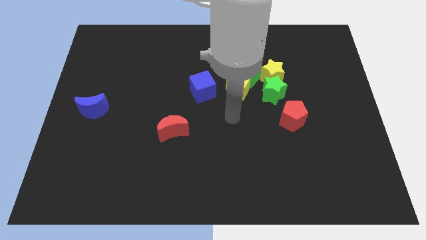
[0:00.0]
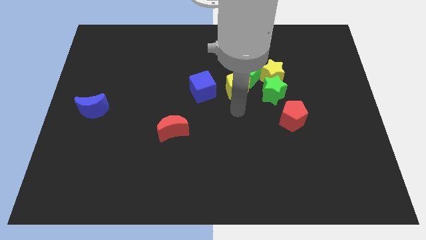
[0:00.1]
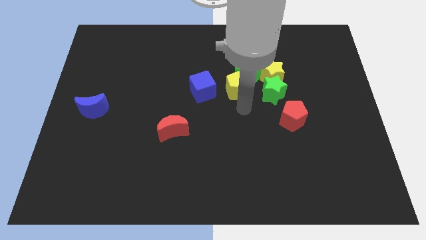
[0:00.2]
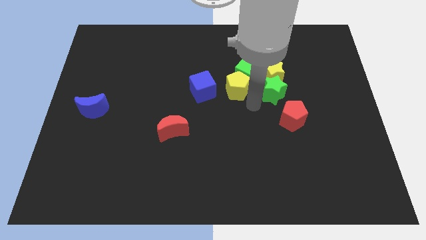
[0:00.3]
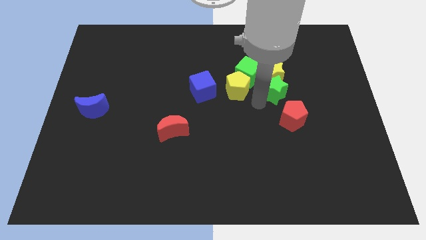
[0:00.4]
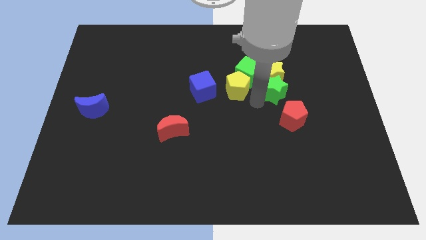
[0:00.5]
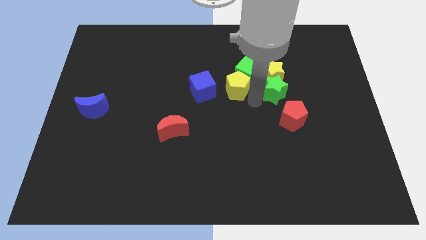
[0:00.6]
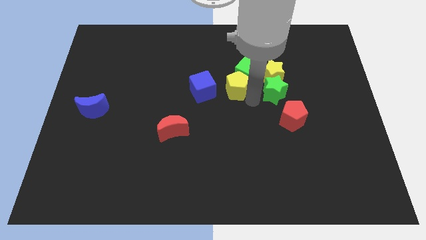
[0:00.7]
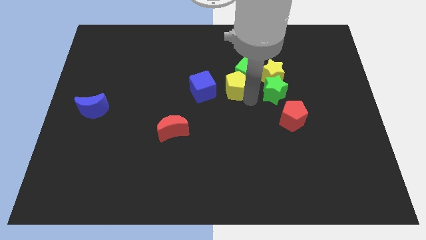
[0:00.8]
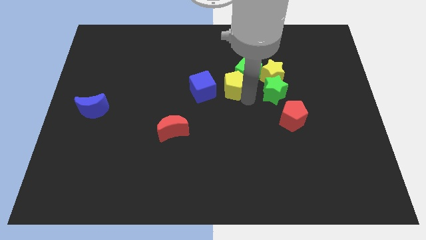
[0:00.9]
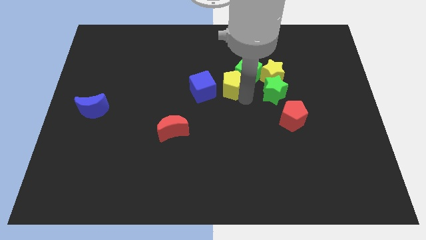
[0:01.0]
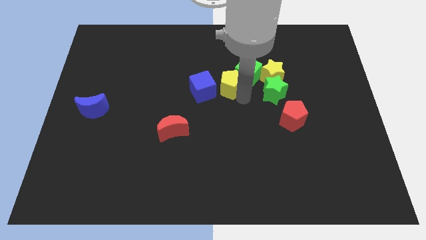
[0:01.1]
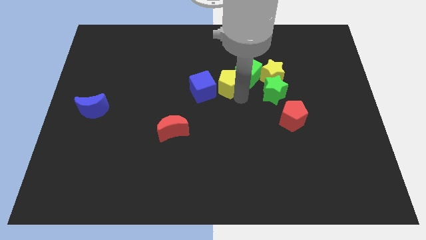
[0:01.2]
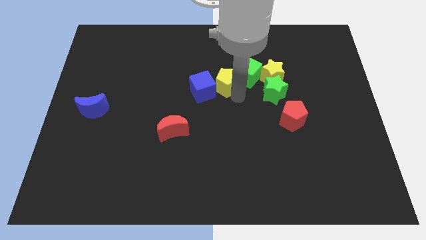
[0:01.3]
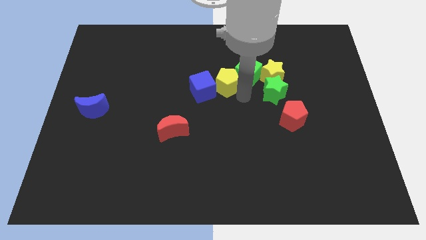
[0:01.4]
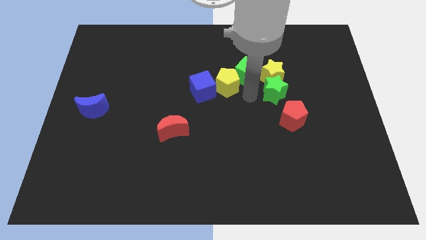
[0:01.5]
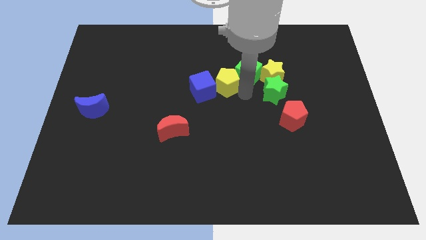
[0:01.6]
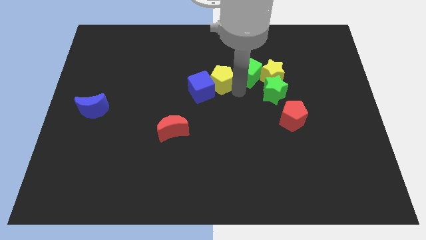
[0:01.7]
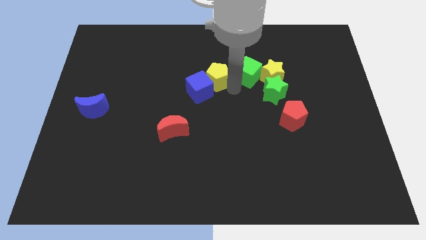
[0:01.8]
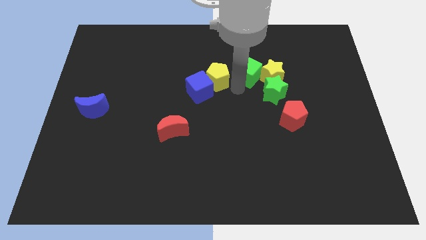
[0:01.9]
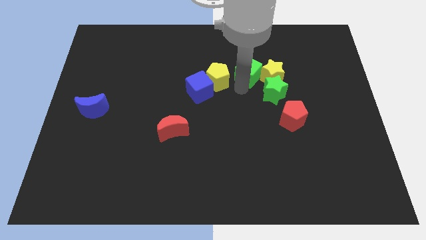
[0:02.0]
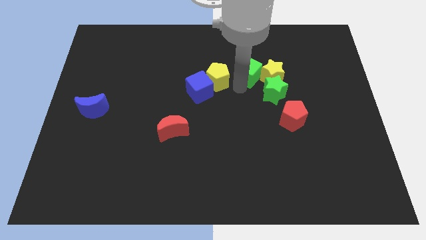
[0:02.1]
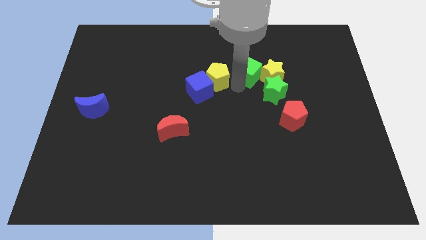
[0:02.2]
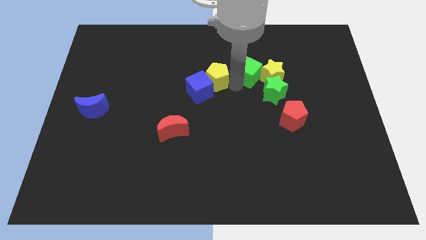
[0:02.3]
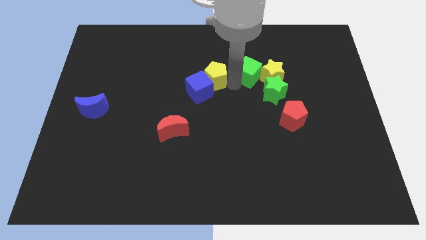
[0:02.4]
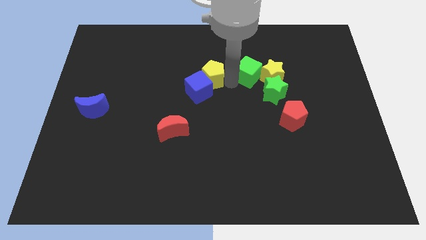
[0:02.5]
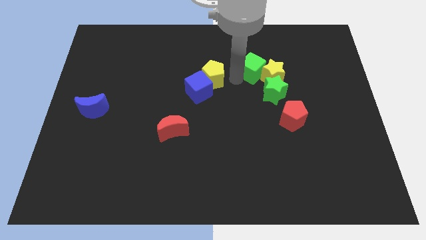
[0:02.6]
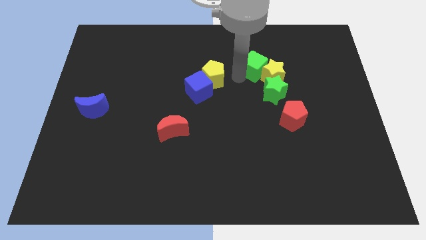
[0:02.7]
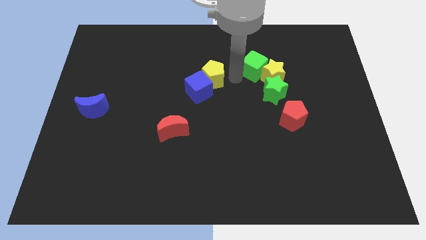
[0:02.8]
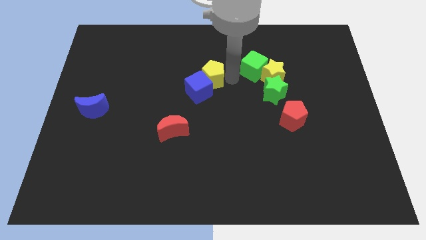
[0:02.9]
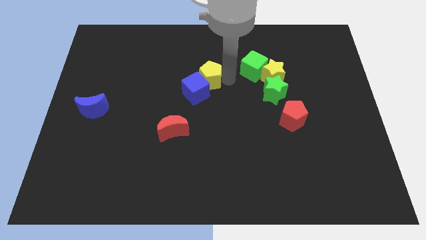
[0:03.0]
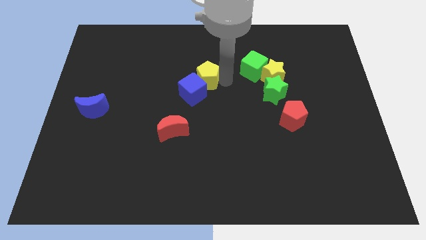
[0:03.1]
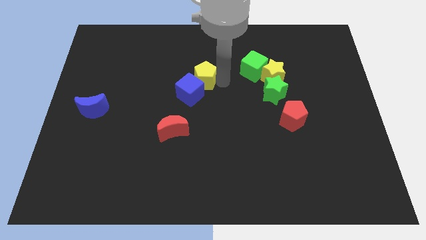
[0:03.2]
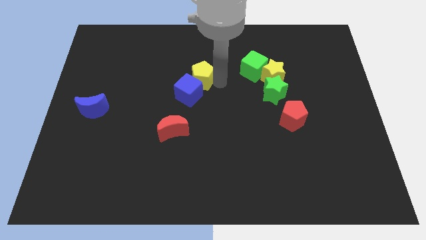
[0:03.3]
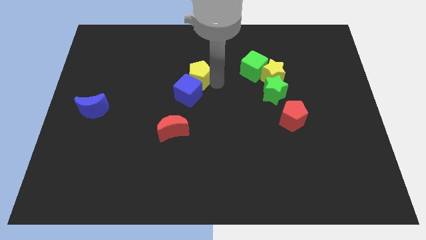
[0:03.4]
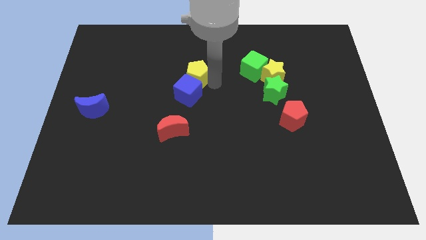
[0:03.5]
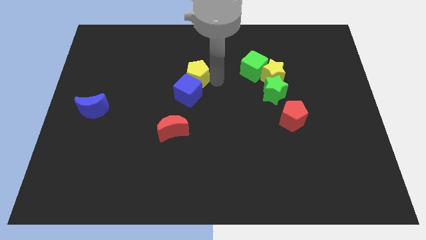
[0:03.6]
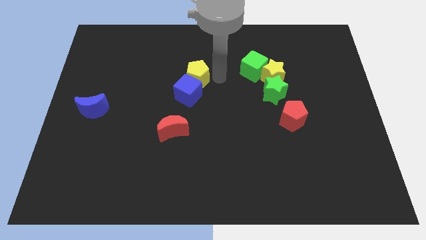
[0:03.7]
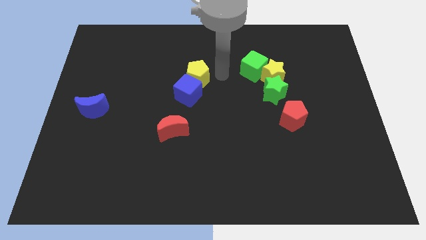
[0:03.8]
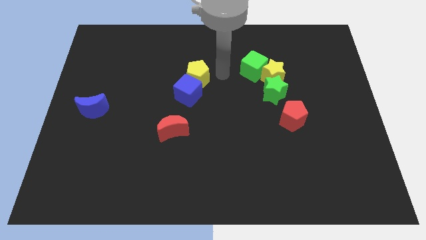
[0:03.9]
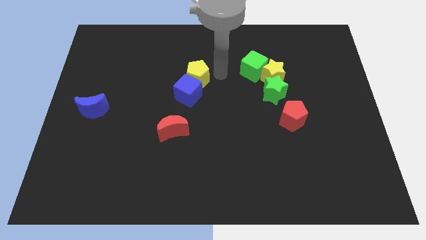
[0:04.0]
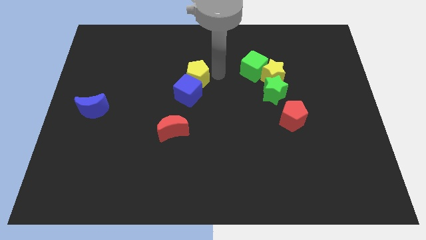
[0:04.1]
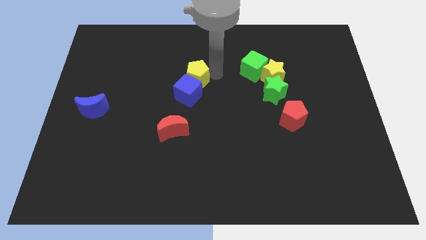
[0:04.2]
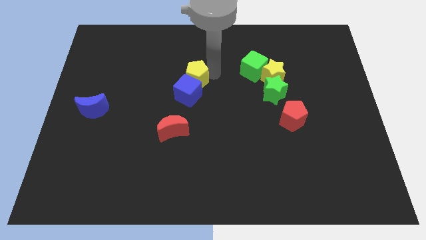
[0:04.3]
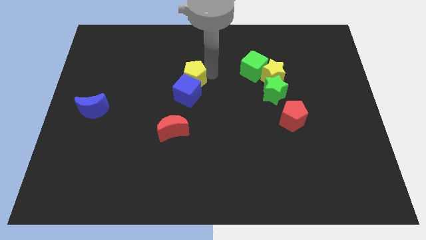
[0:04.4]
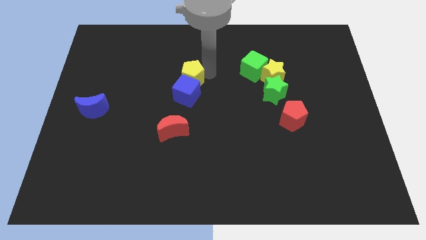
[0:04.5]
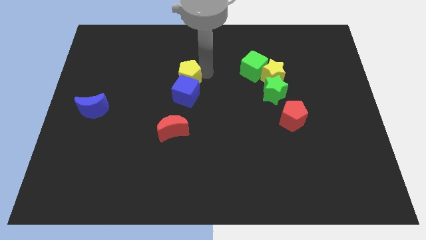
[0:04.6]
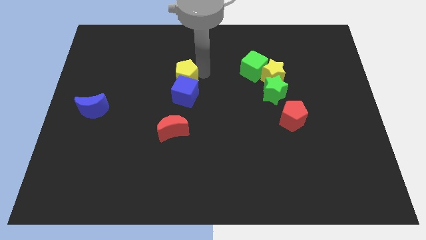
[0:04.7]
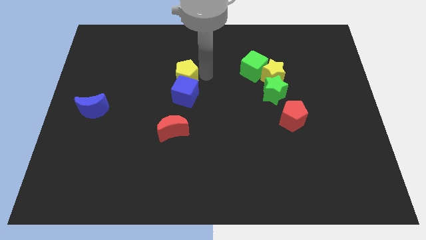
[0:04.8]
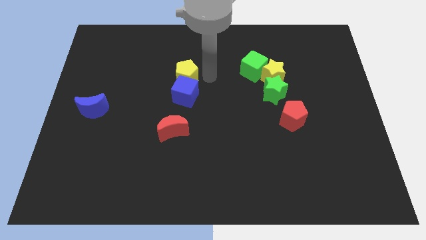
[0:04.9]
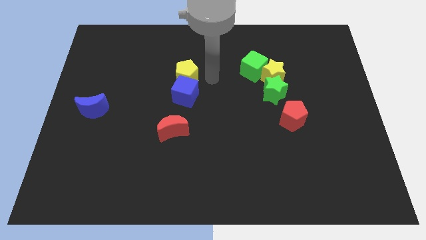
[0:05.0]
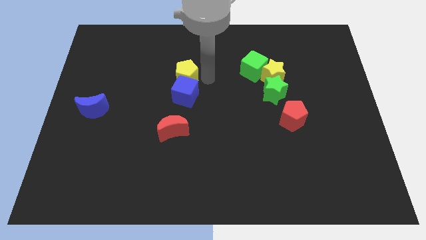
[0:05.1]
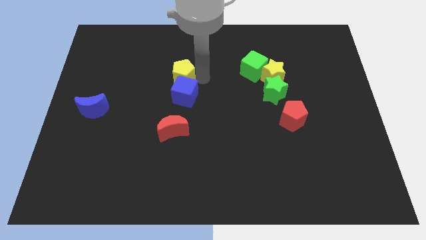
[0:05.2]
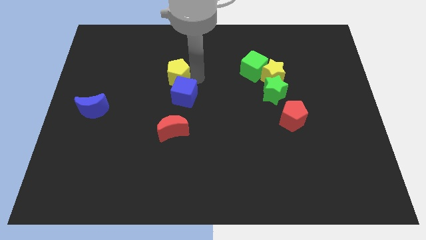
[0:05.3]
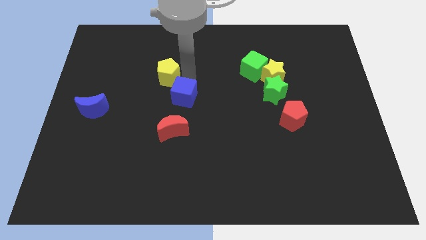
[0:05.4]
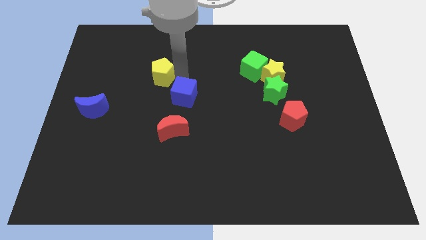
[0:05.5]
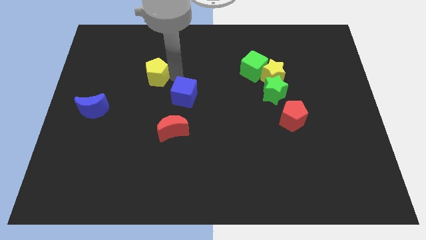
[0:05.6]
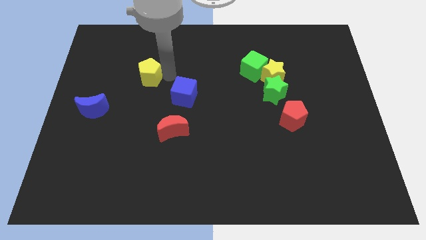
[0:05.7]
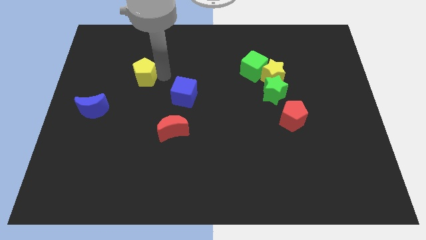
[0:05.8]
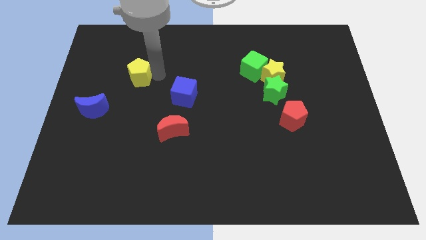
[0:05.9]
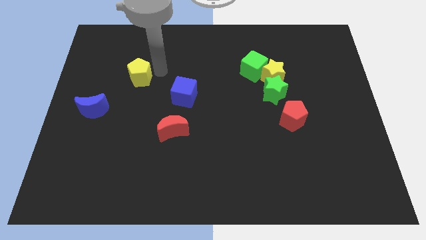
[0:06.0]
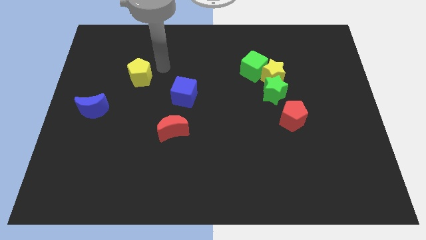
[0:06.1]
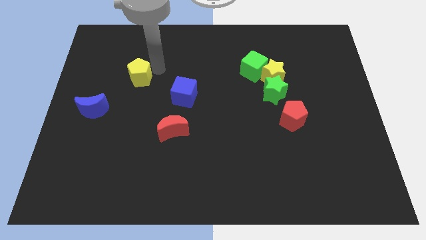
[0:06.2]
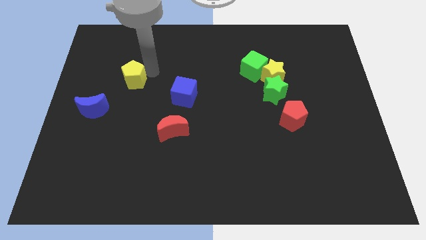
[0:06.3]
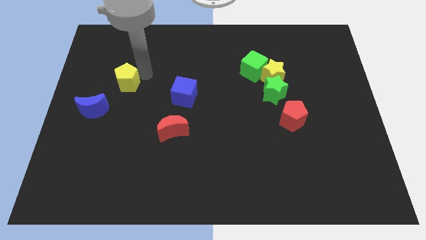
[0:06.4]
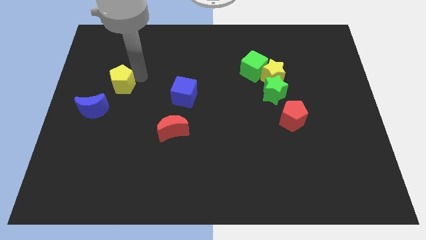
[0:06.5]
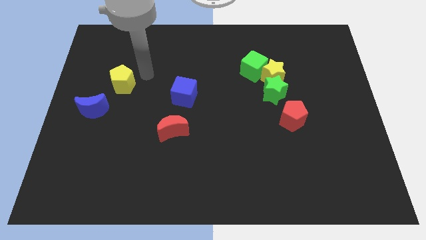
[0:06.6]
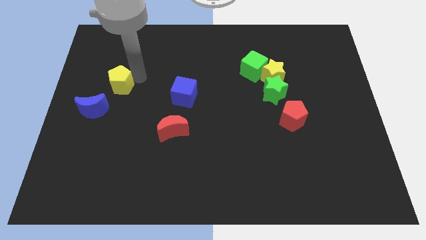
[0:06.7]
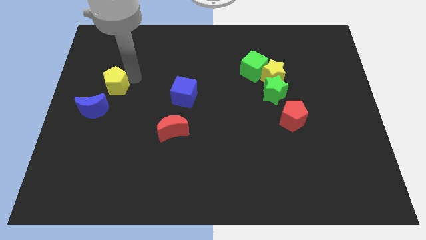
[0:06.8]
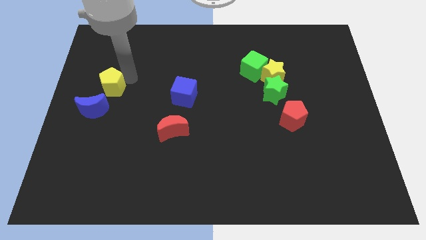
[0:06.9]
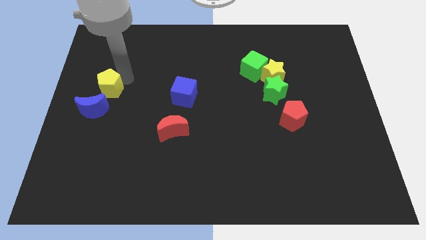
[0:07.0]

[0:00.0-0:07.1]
slide the yellow pentagon to the left side
